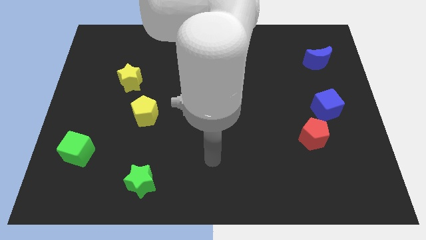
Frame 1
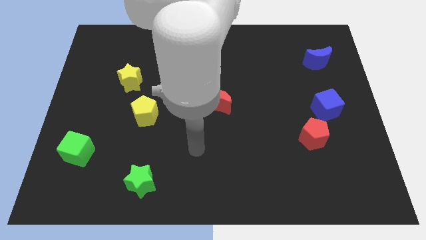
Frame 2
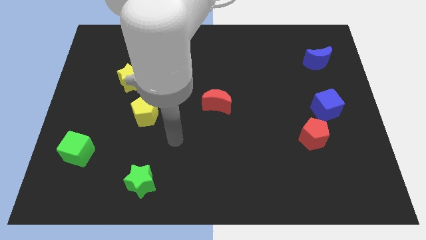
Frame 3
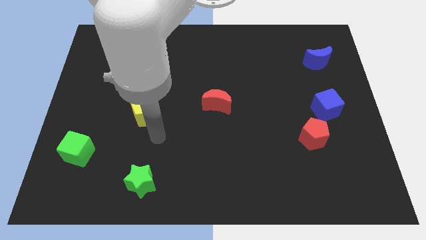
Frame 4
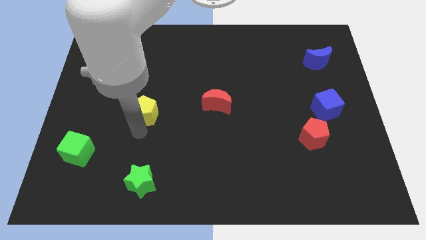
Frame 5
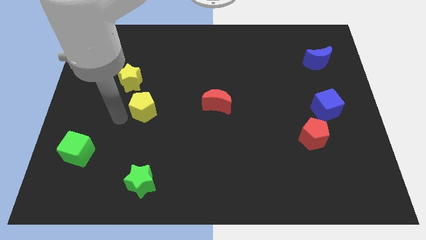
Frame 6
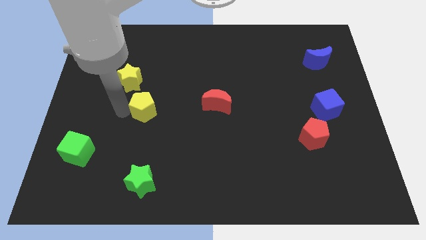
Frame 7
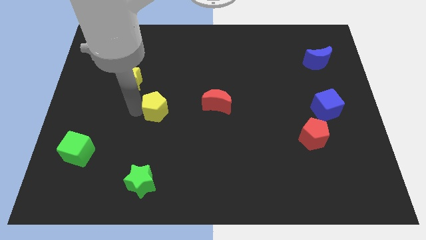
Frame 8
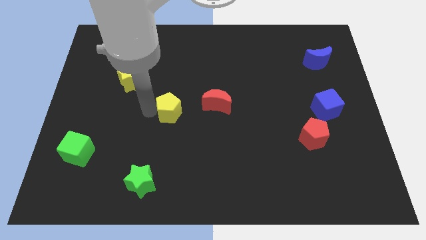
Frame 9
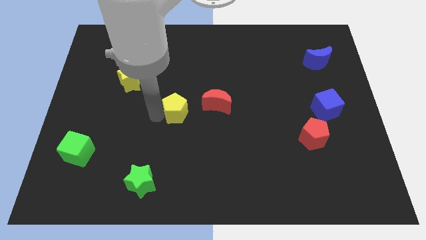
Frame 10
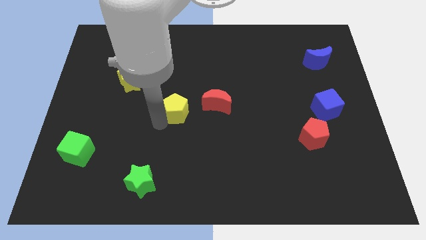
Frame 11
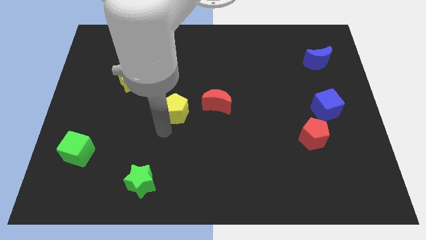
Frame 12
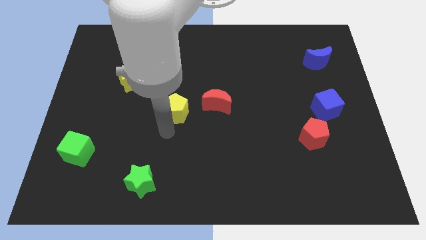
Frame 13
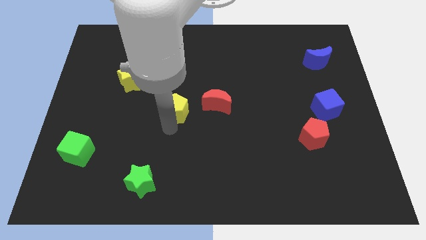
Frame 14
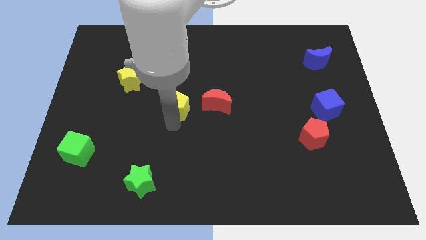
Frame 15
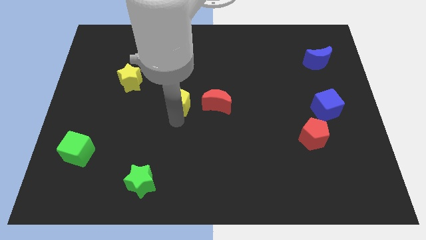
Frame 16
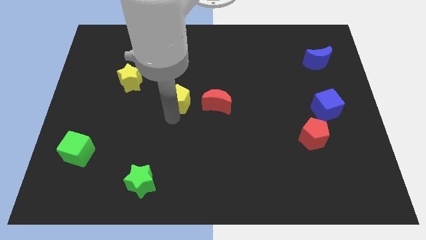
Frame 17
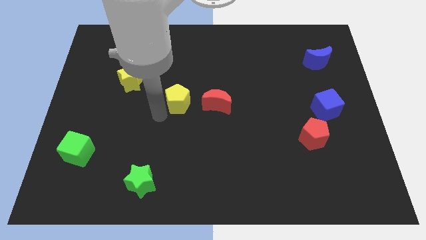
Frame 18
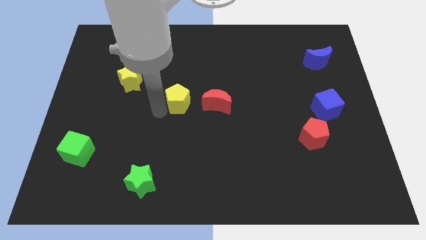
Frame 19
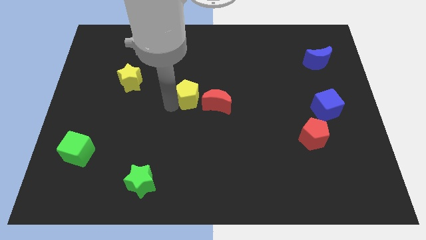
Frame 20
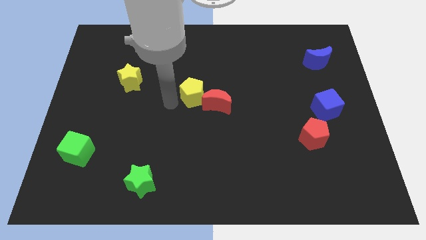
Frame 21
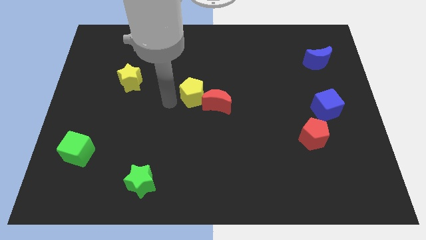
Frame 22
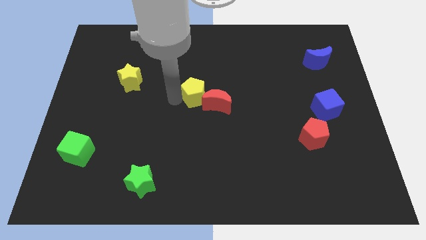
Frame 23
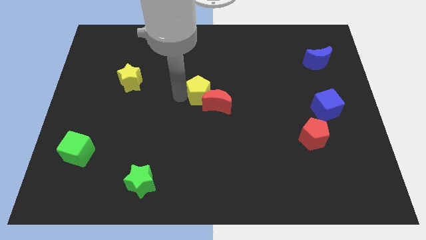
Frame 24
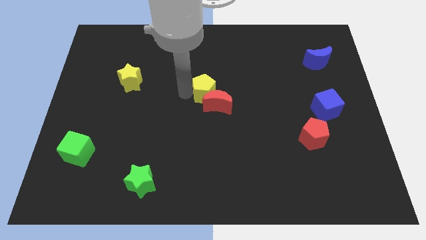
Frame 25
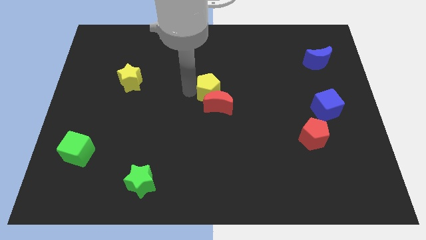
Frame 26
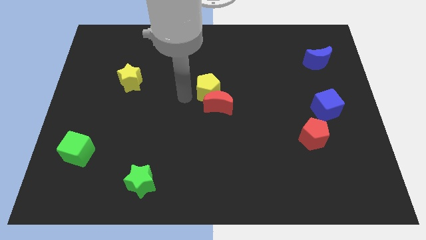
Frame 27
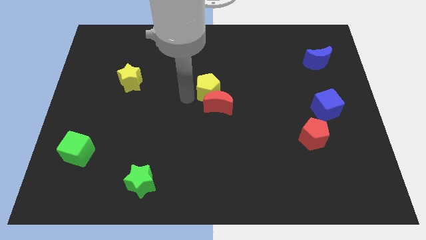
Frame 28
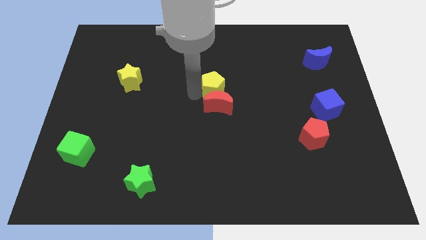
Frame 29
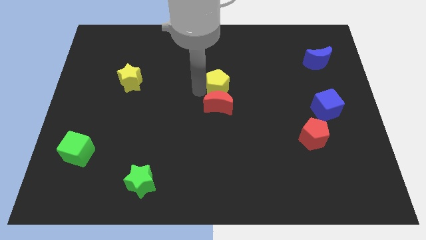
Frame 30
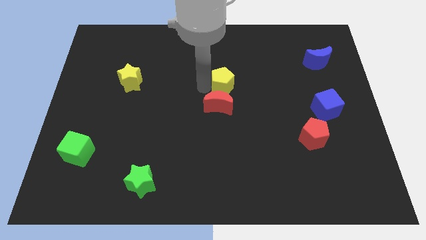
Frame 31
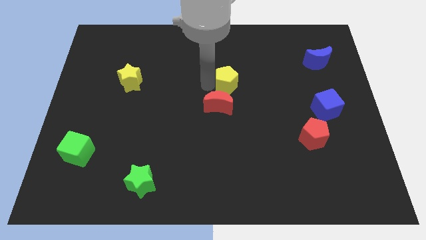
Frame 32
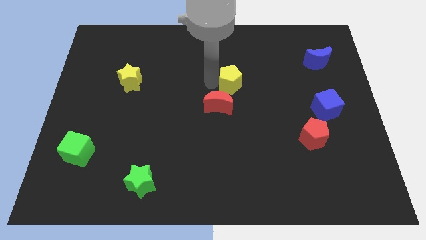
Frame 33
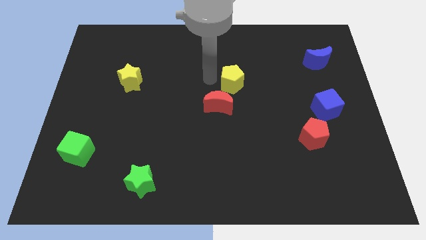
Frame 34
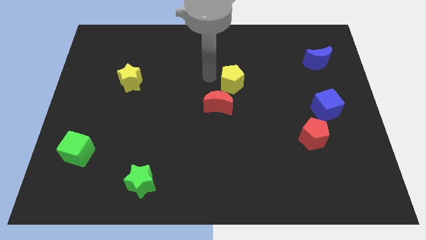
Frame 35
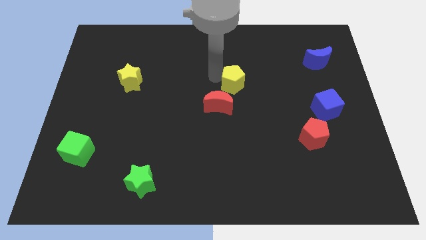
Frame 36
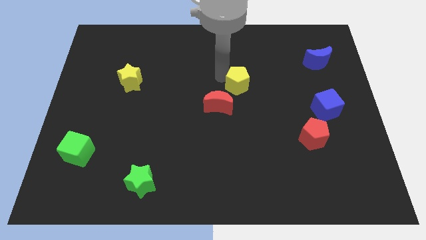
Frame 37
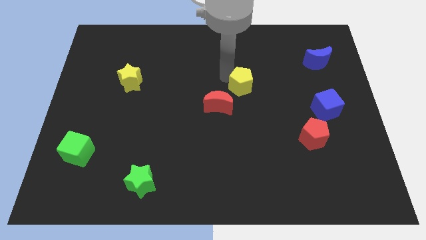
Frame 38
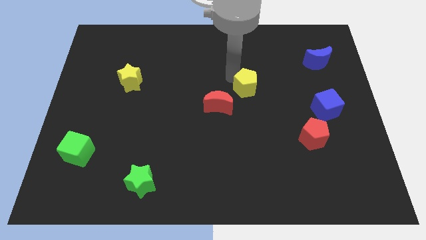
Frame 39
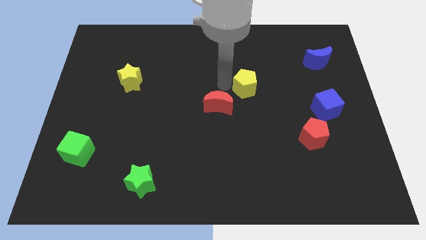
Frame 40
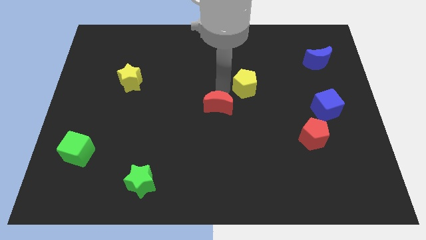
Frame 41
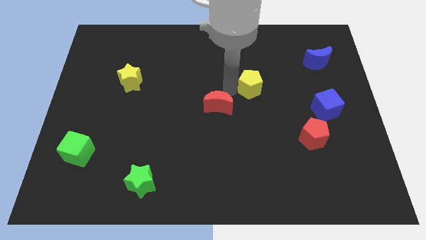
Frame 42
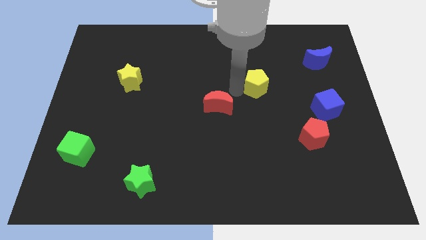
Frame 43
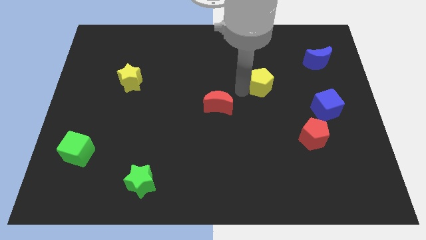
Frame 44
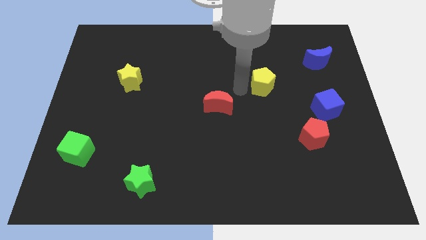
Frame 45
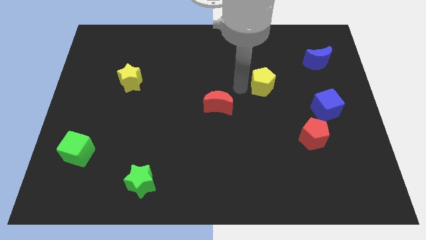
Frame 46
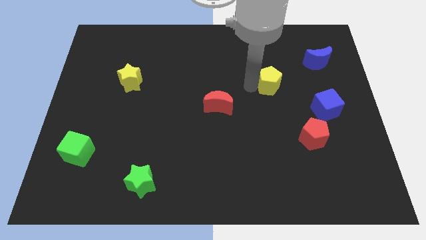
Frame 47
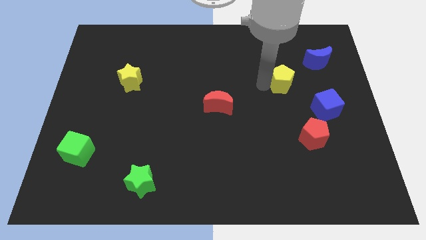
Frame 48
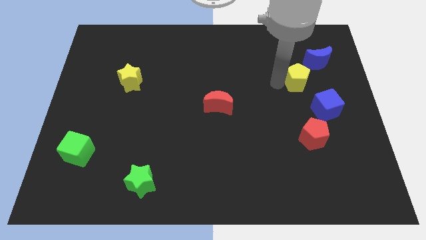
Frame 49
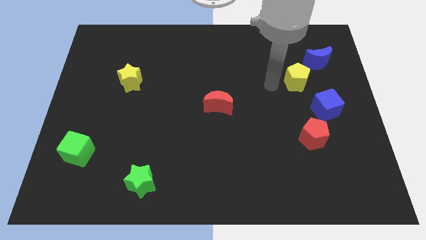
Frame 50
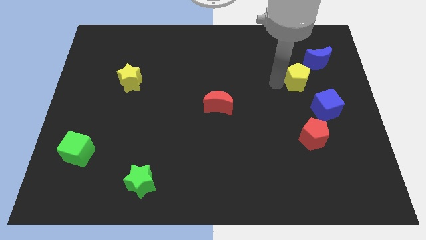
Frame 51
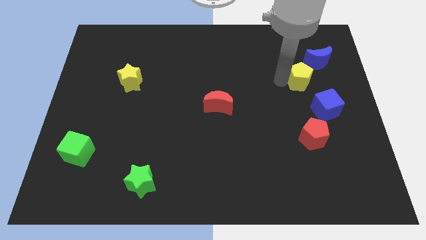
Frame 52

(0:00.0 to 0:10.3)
put the yellow pentagon to the top of the blue cube

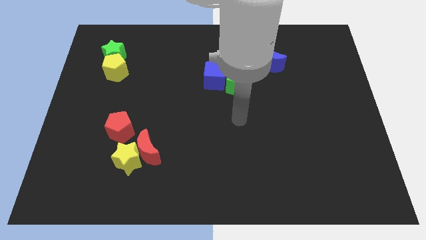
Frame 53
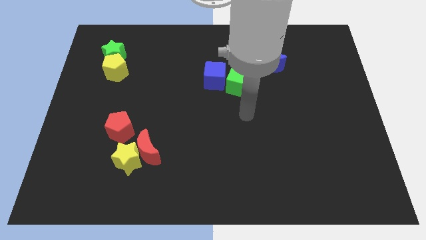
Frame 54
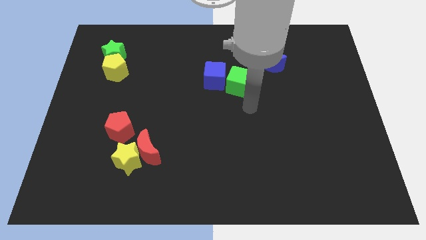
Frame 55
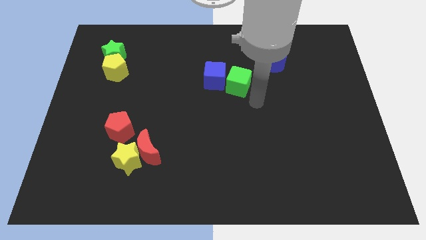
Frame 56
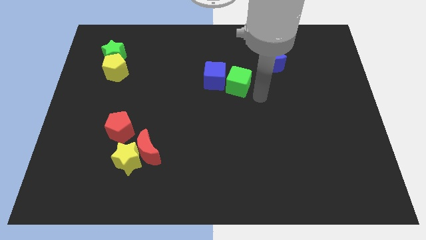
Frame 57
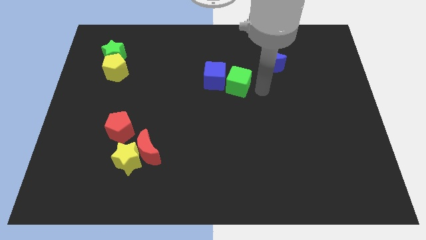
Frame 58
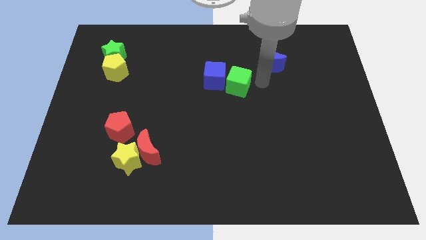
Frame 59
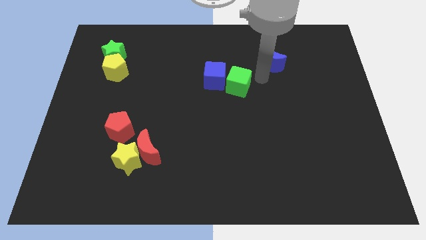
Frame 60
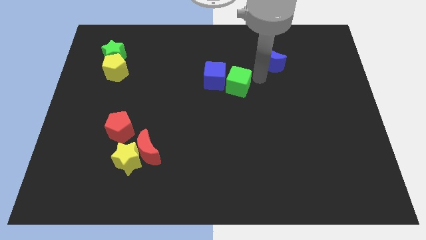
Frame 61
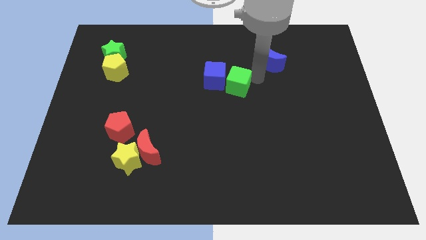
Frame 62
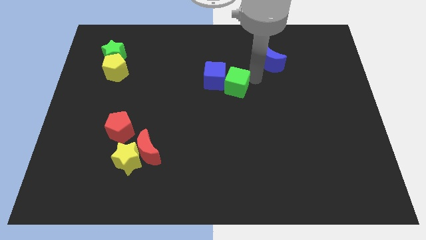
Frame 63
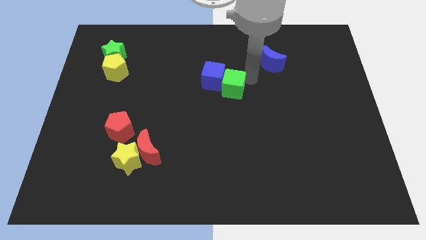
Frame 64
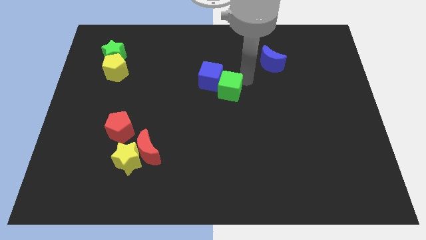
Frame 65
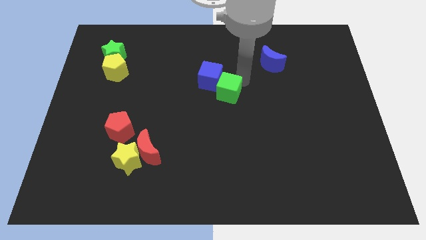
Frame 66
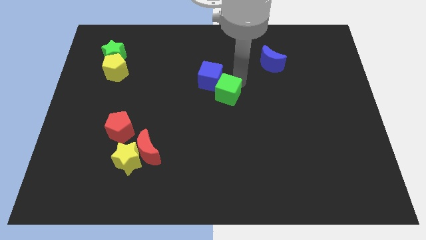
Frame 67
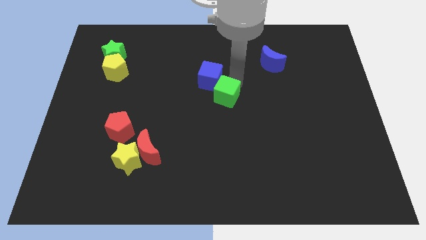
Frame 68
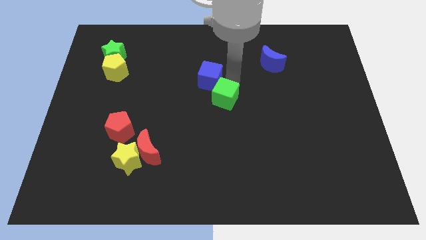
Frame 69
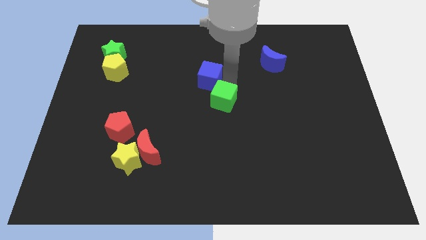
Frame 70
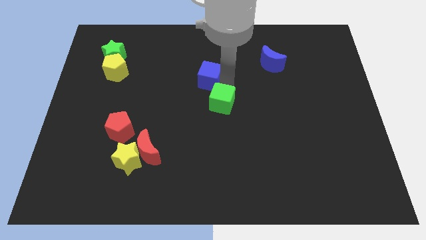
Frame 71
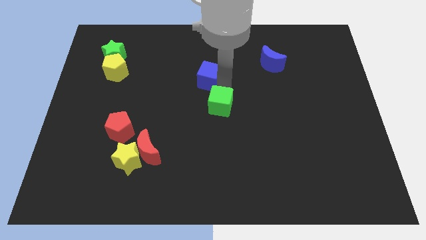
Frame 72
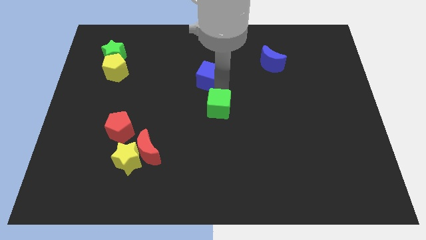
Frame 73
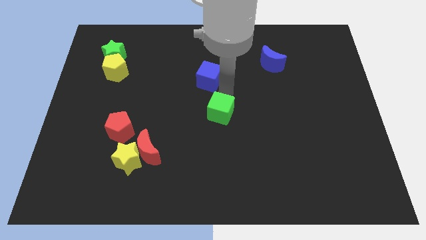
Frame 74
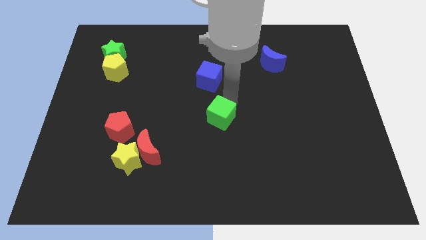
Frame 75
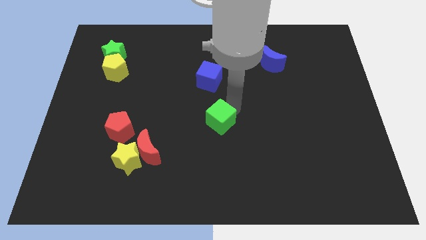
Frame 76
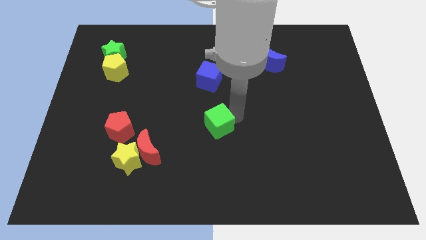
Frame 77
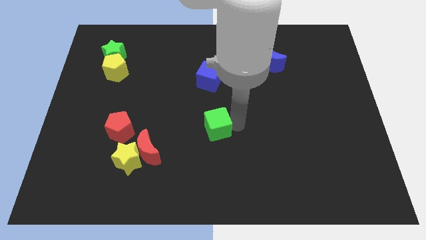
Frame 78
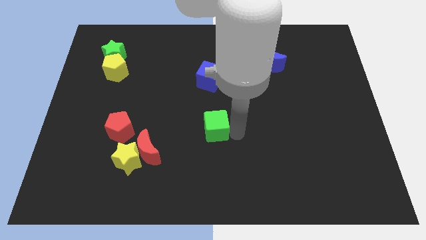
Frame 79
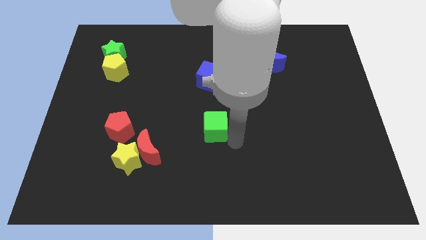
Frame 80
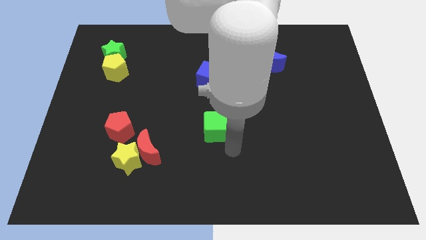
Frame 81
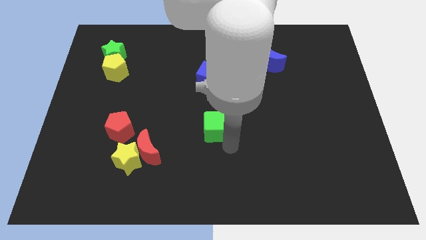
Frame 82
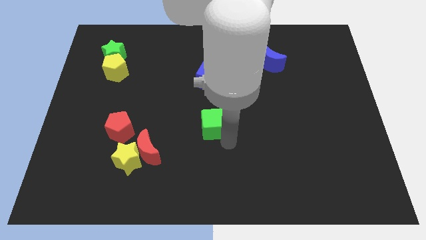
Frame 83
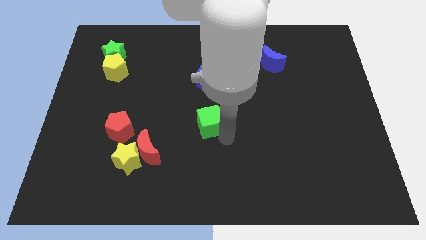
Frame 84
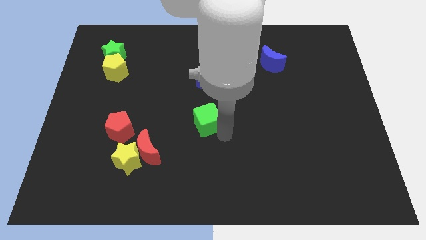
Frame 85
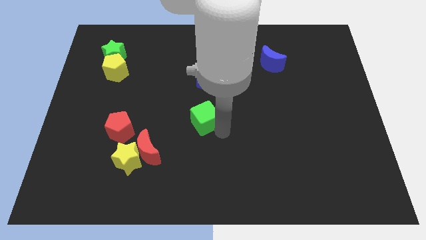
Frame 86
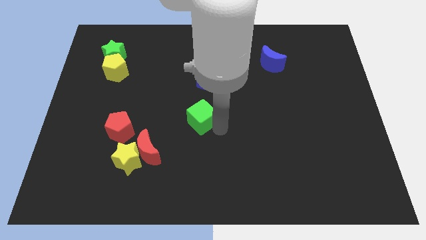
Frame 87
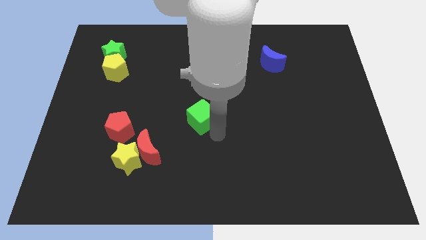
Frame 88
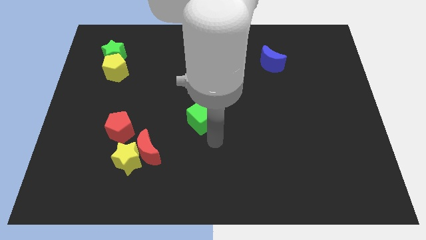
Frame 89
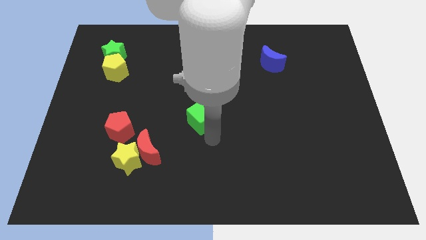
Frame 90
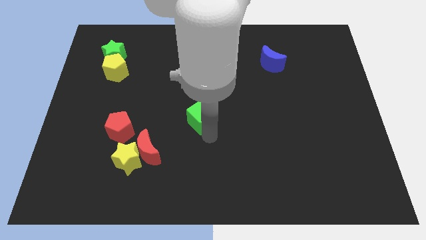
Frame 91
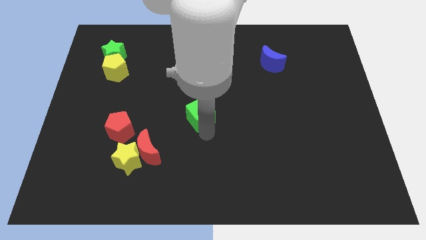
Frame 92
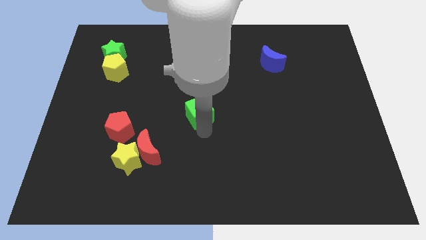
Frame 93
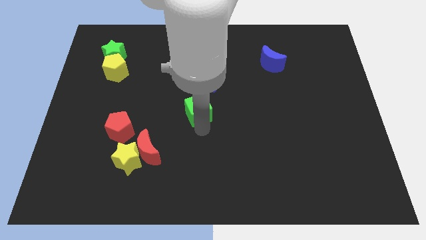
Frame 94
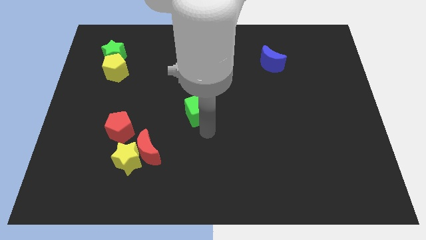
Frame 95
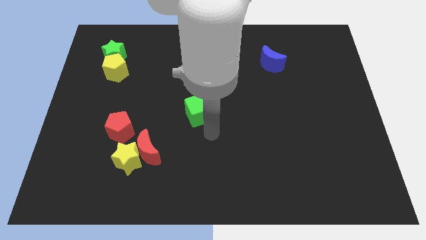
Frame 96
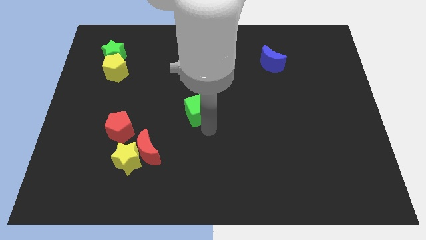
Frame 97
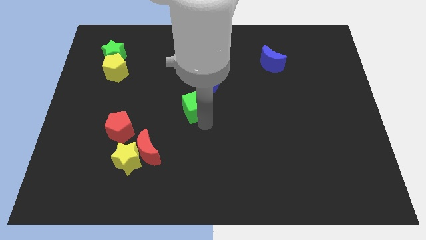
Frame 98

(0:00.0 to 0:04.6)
move the green cube to the bottom left of the blue cube
